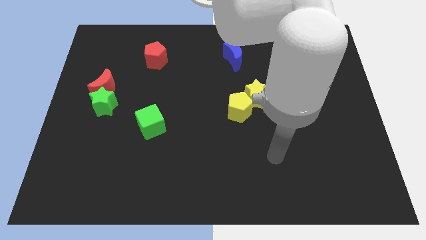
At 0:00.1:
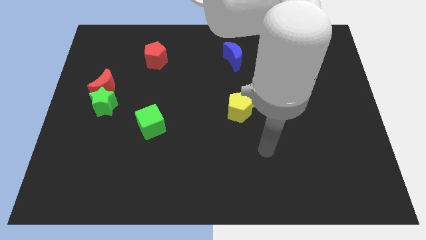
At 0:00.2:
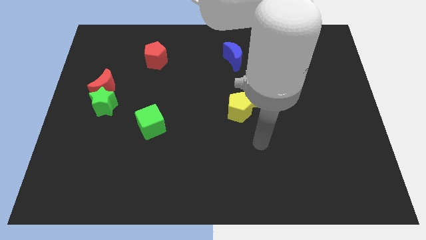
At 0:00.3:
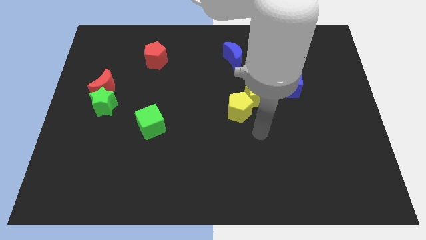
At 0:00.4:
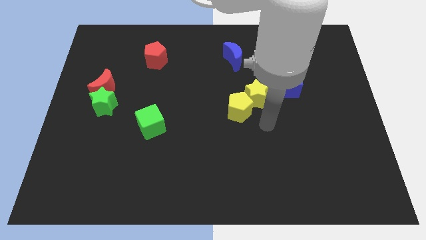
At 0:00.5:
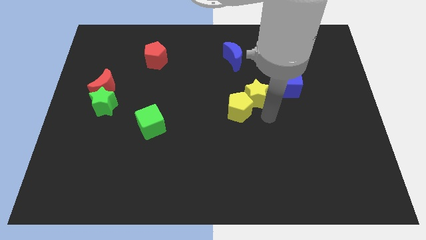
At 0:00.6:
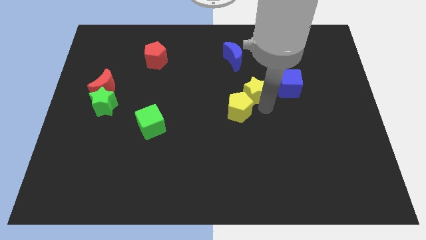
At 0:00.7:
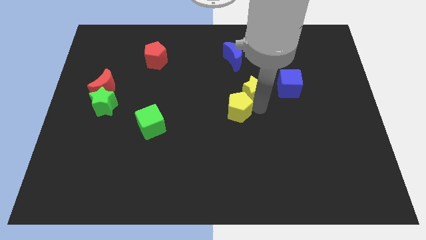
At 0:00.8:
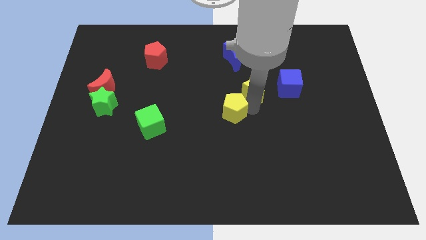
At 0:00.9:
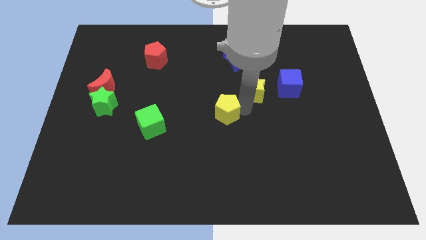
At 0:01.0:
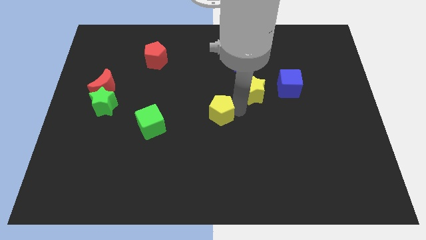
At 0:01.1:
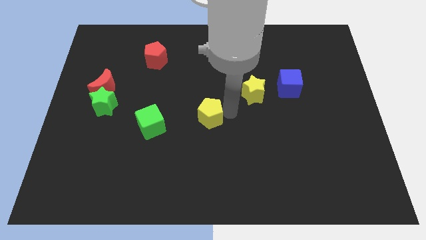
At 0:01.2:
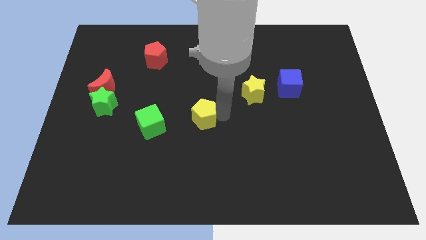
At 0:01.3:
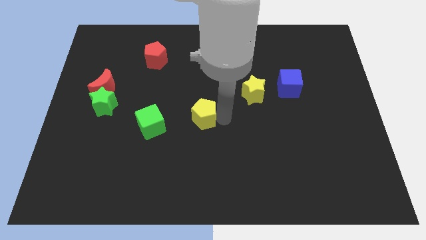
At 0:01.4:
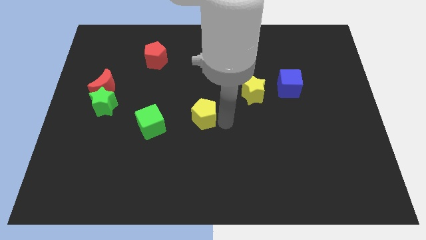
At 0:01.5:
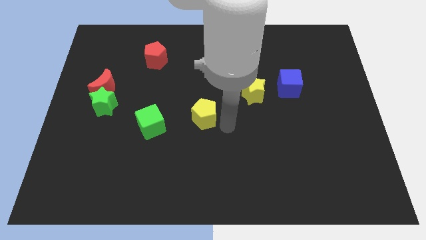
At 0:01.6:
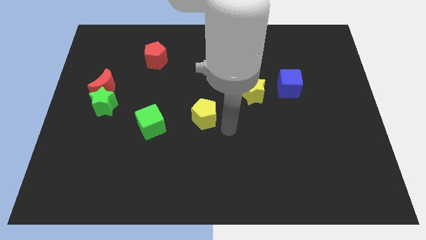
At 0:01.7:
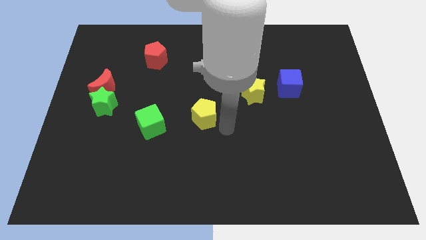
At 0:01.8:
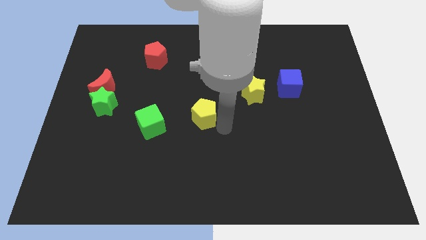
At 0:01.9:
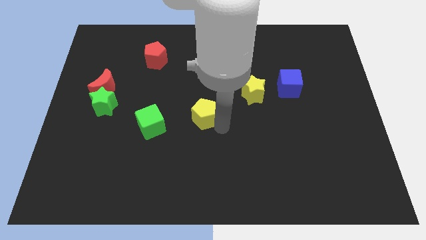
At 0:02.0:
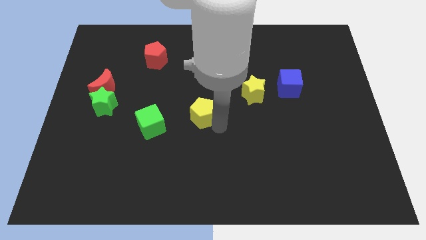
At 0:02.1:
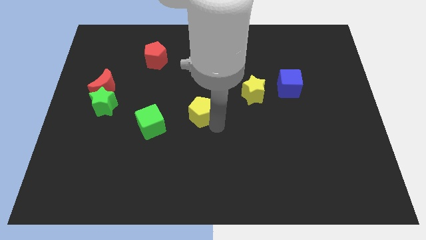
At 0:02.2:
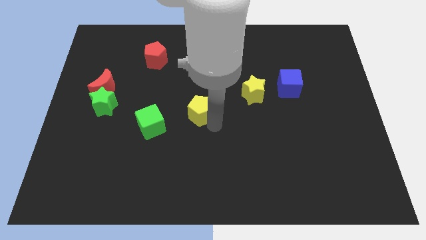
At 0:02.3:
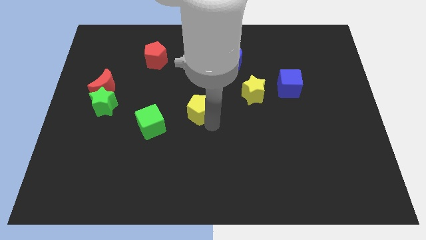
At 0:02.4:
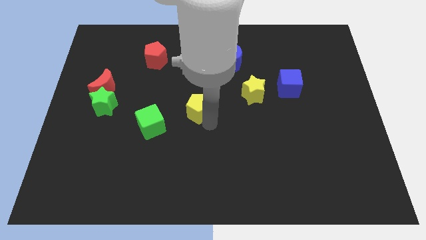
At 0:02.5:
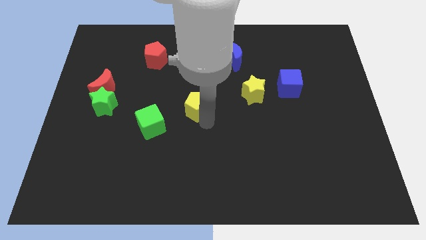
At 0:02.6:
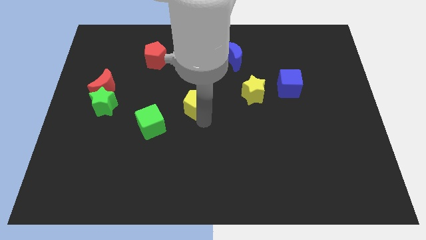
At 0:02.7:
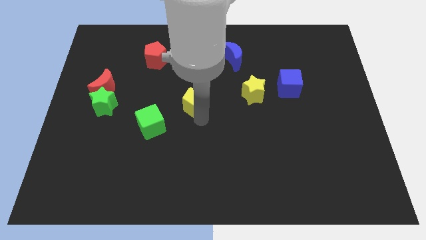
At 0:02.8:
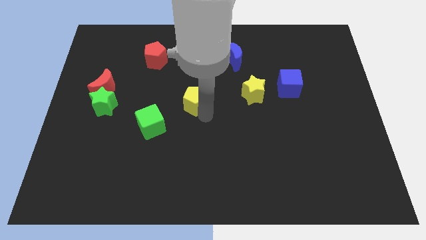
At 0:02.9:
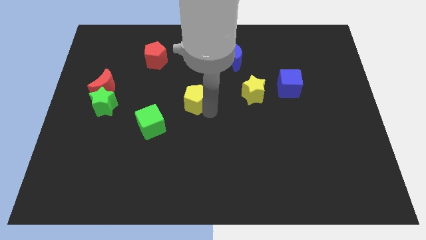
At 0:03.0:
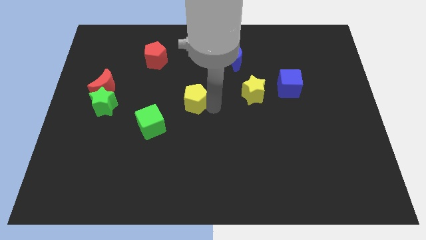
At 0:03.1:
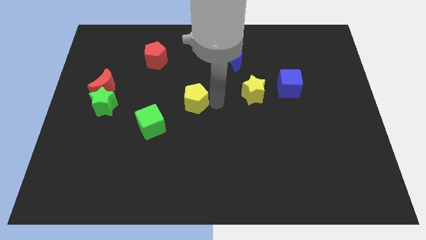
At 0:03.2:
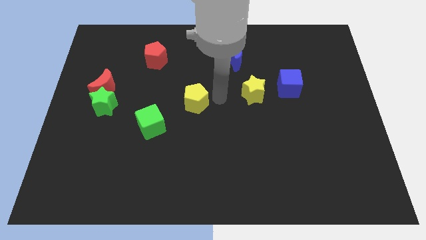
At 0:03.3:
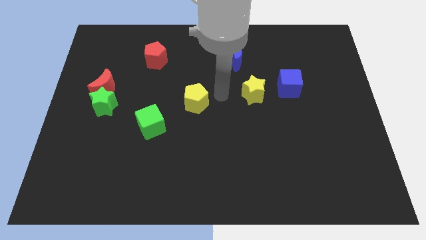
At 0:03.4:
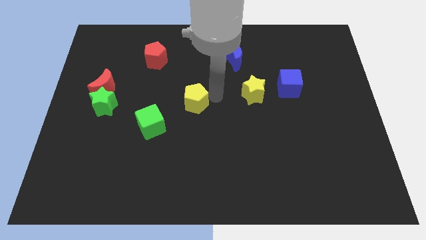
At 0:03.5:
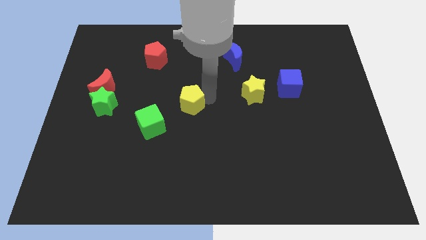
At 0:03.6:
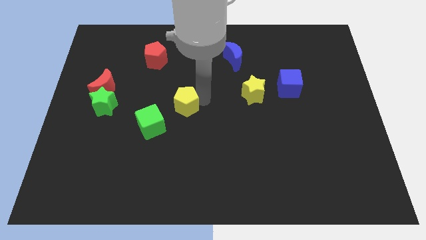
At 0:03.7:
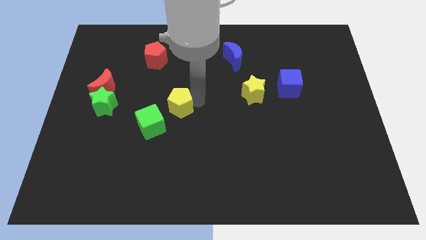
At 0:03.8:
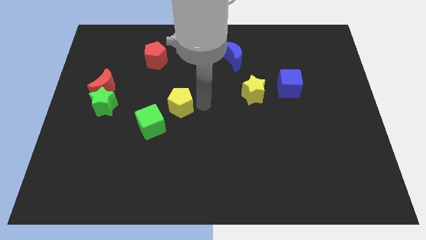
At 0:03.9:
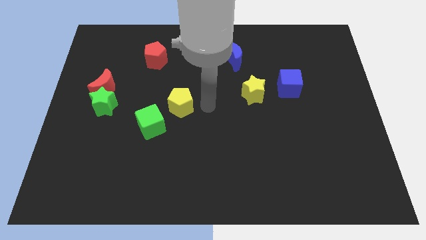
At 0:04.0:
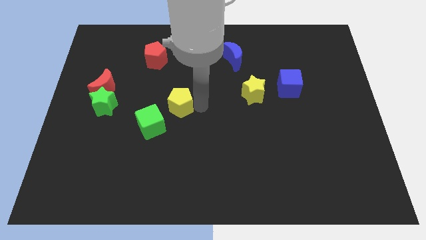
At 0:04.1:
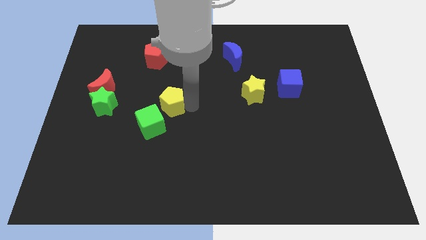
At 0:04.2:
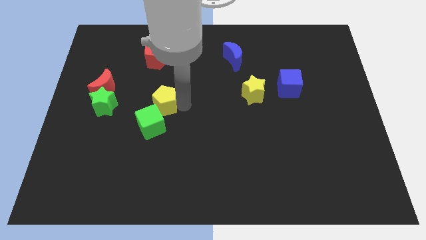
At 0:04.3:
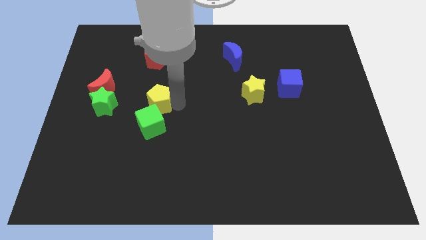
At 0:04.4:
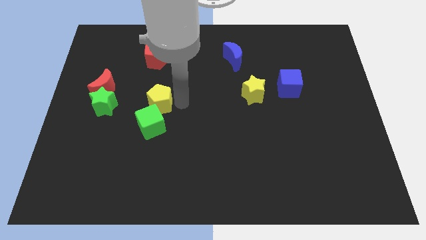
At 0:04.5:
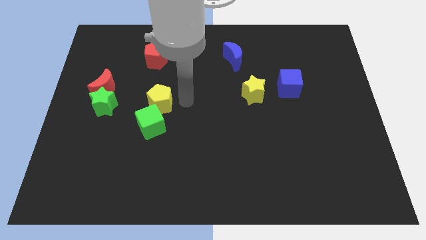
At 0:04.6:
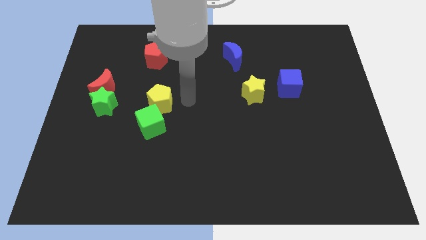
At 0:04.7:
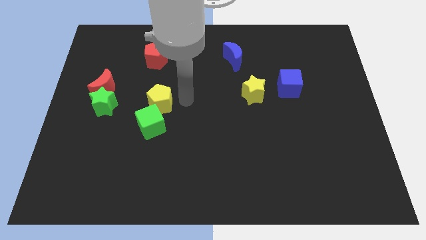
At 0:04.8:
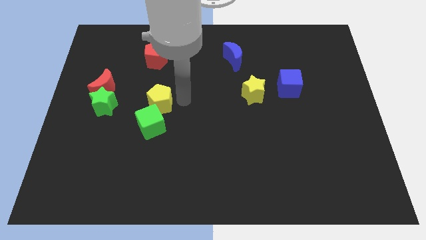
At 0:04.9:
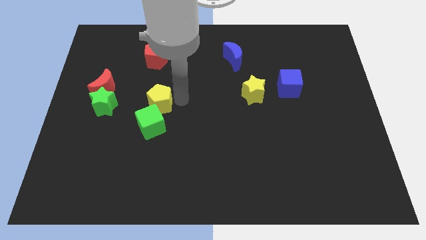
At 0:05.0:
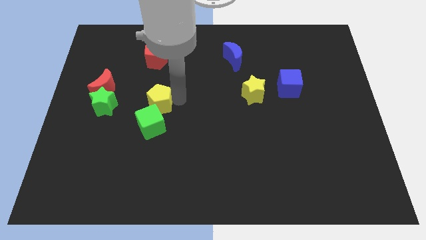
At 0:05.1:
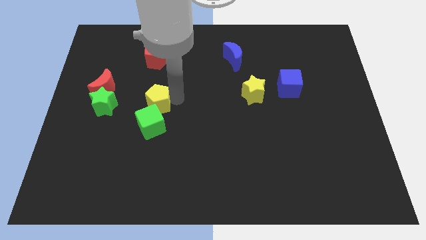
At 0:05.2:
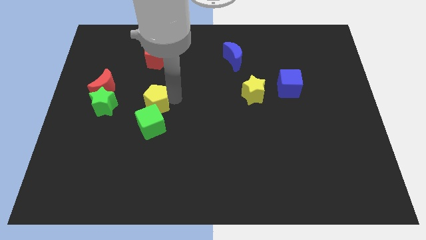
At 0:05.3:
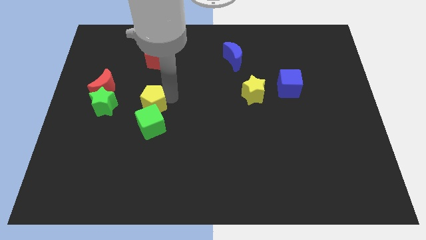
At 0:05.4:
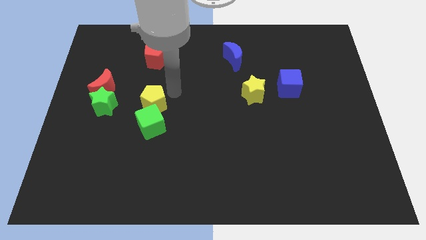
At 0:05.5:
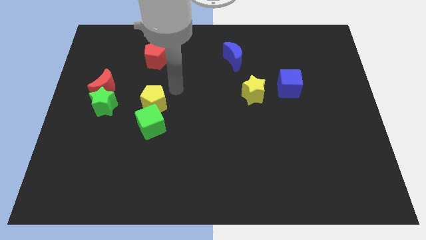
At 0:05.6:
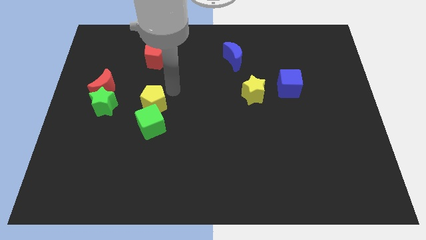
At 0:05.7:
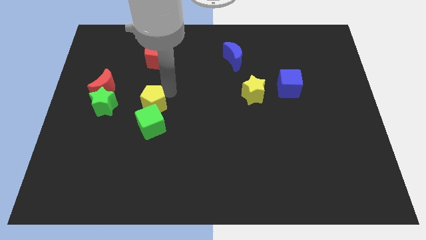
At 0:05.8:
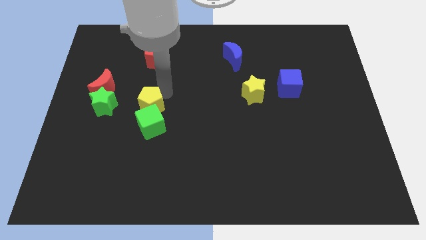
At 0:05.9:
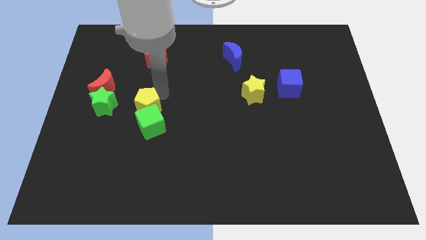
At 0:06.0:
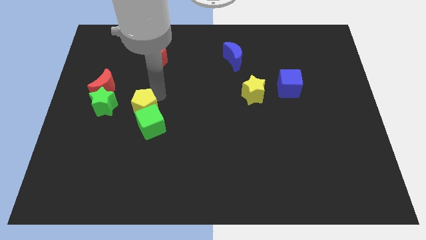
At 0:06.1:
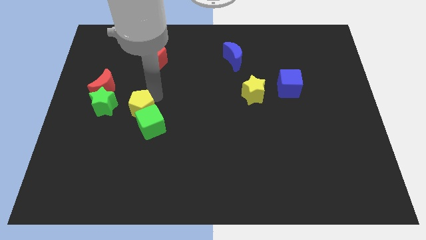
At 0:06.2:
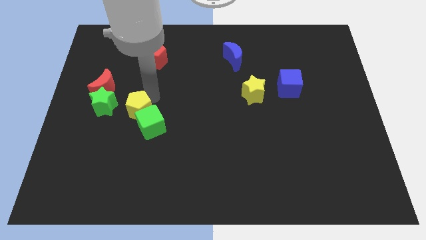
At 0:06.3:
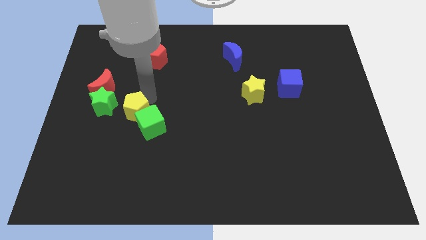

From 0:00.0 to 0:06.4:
push the yellow pentagon to the bottom right side of the green star
